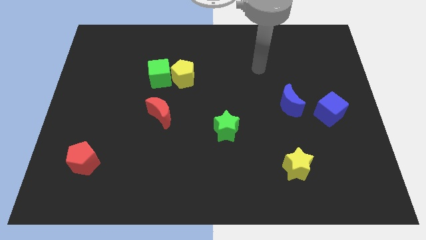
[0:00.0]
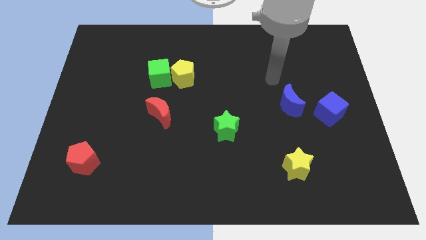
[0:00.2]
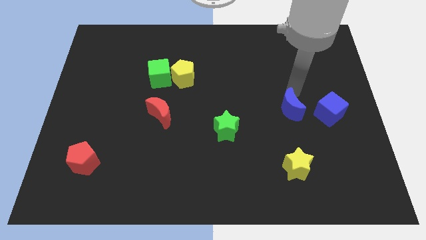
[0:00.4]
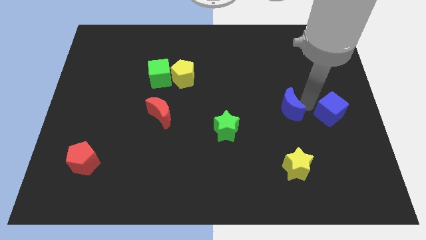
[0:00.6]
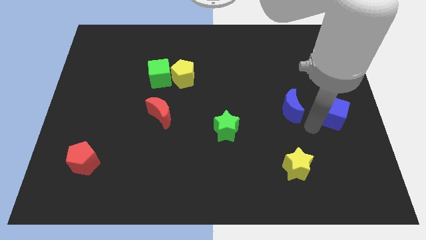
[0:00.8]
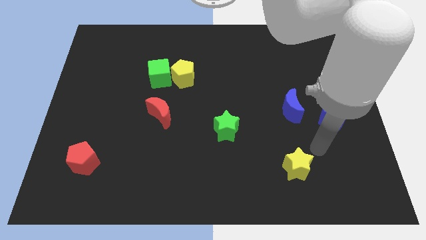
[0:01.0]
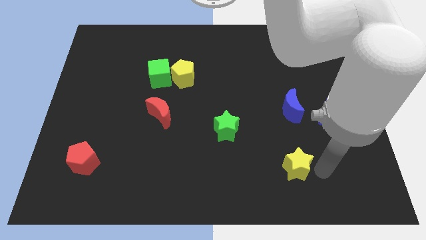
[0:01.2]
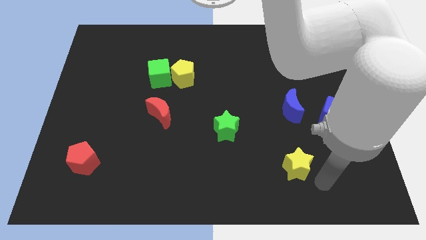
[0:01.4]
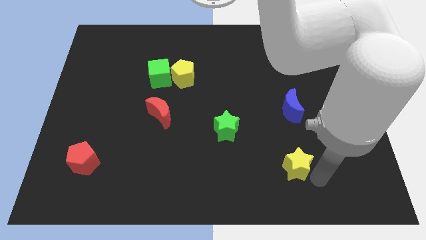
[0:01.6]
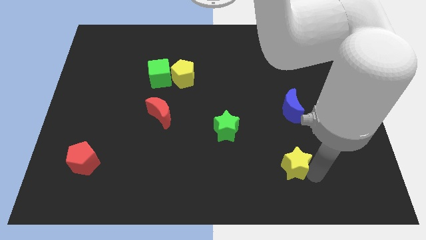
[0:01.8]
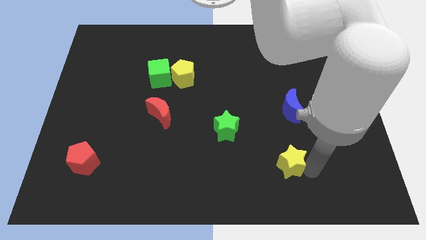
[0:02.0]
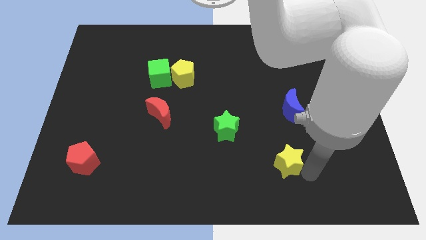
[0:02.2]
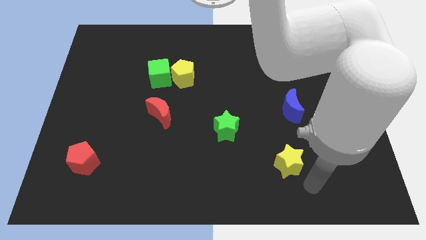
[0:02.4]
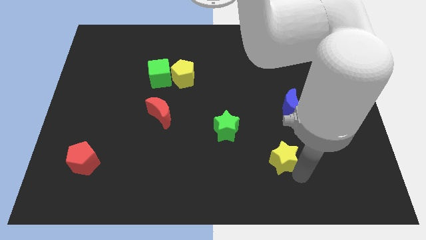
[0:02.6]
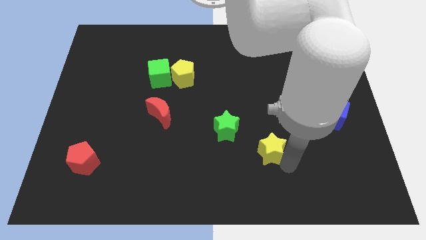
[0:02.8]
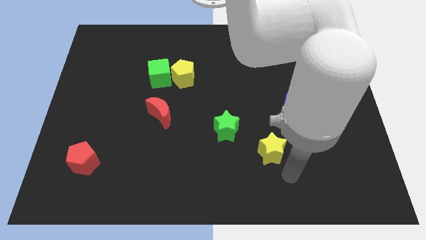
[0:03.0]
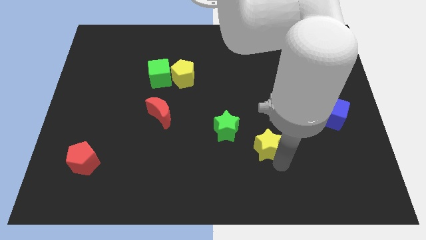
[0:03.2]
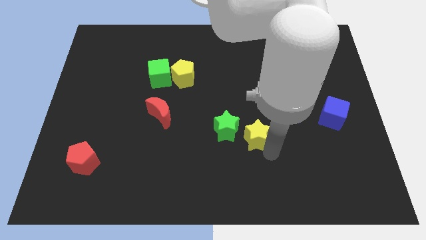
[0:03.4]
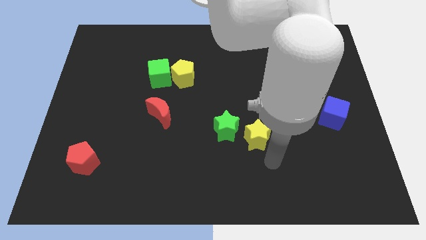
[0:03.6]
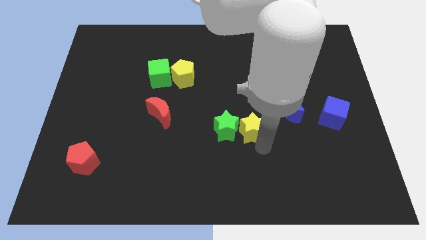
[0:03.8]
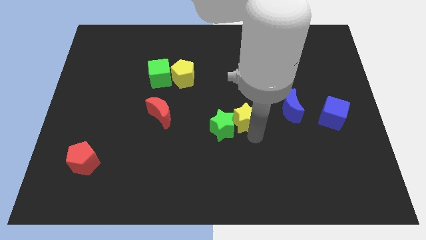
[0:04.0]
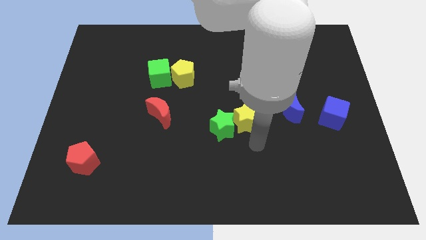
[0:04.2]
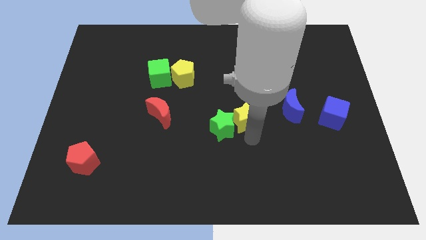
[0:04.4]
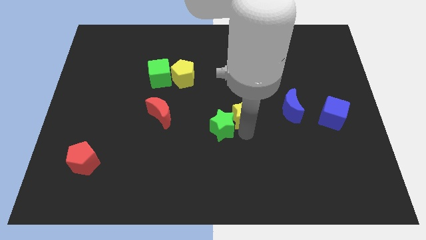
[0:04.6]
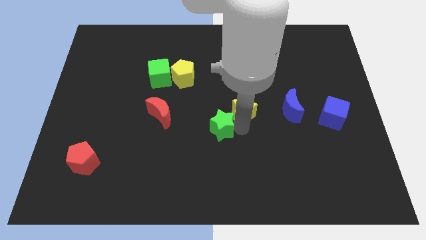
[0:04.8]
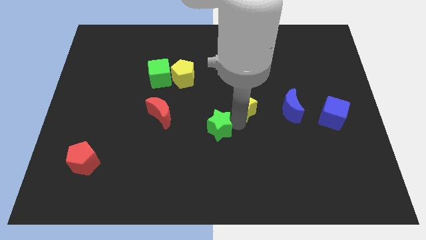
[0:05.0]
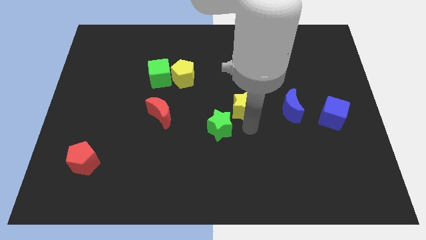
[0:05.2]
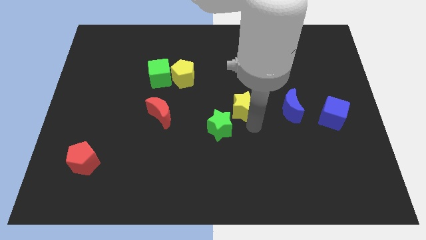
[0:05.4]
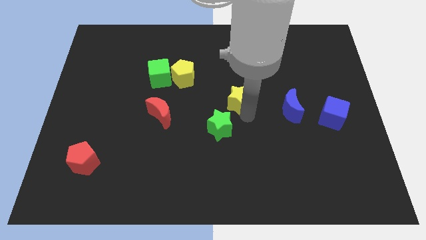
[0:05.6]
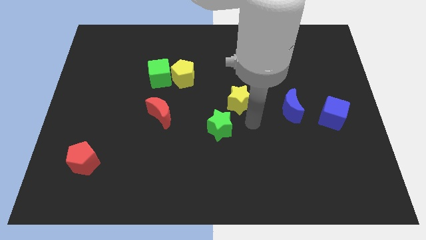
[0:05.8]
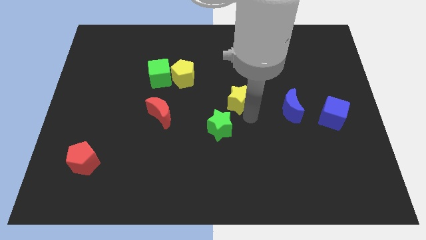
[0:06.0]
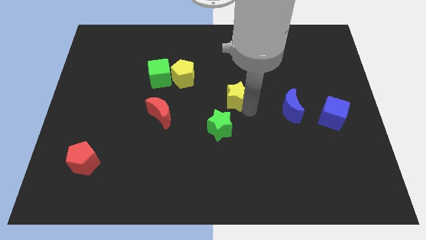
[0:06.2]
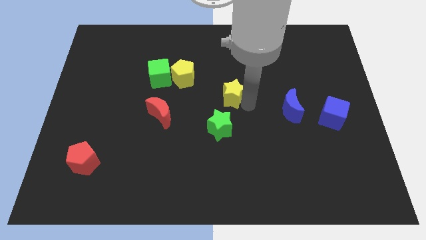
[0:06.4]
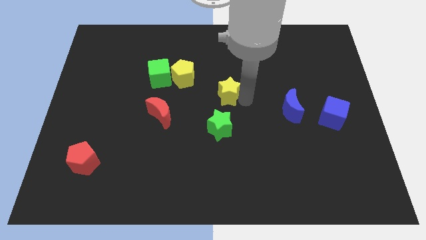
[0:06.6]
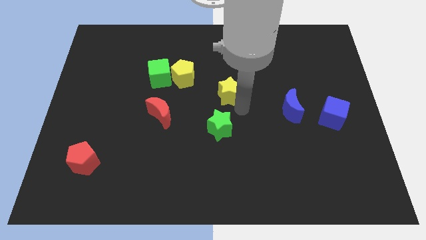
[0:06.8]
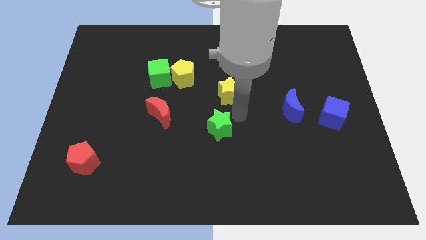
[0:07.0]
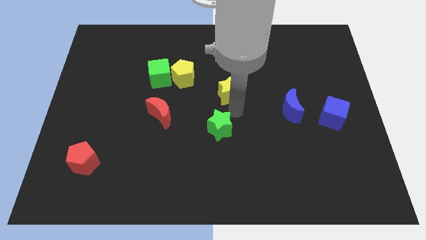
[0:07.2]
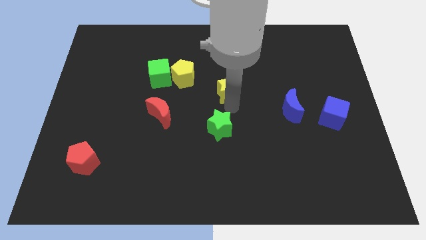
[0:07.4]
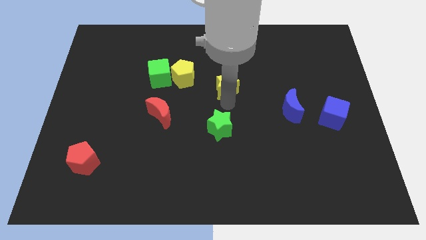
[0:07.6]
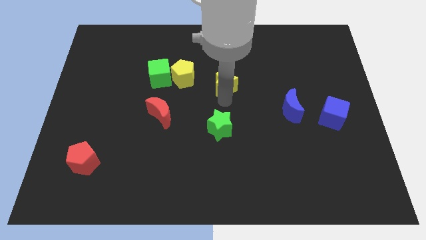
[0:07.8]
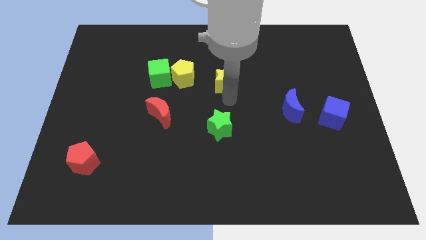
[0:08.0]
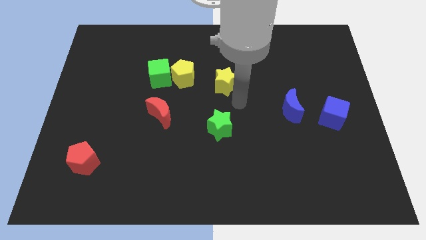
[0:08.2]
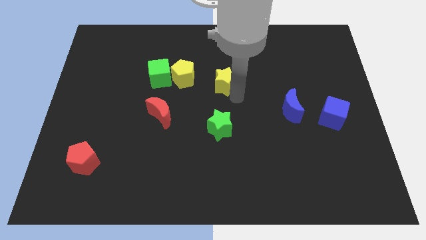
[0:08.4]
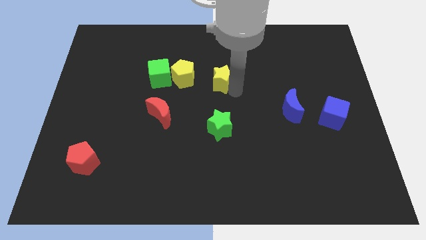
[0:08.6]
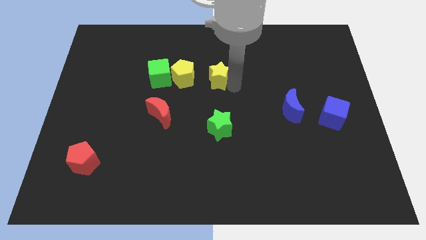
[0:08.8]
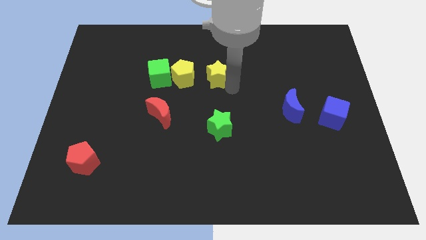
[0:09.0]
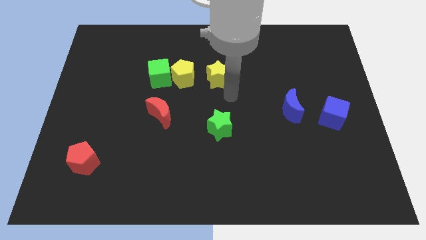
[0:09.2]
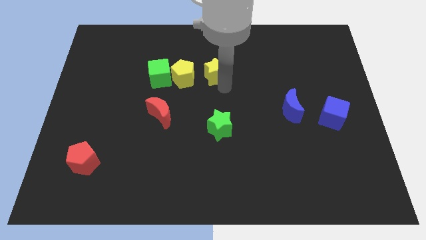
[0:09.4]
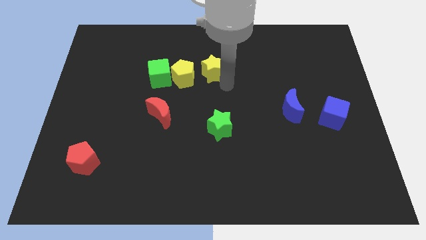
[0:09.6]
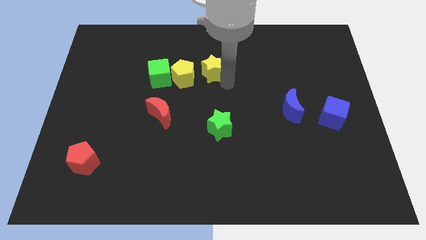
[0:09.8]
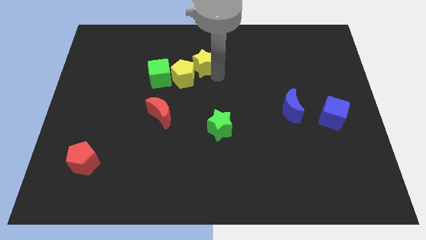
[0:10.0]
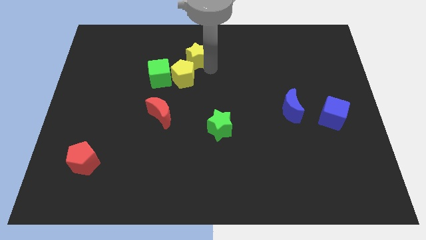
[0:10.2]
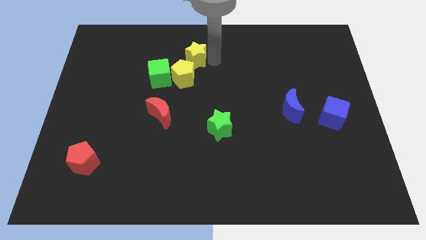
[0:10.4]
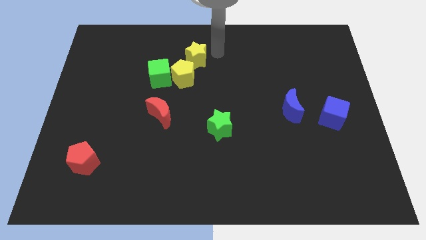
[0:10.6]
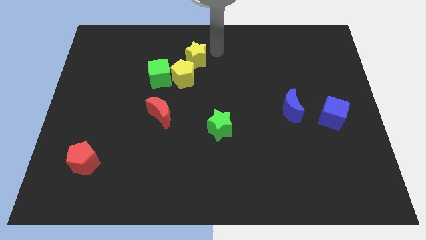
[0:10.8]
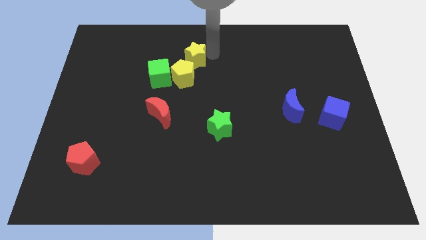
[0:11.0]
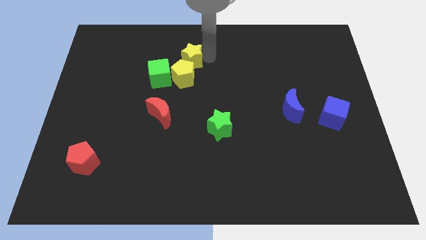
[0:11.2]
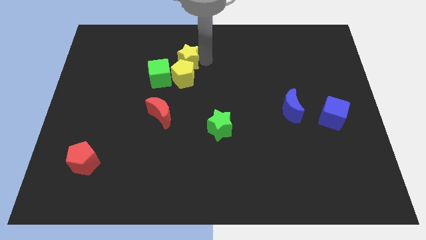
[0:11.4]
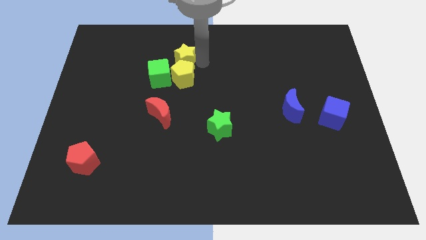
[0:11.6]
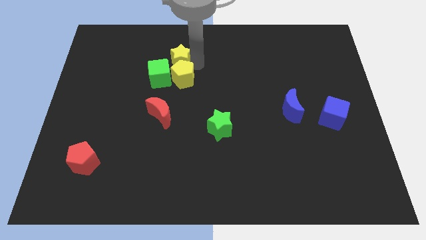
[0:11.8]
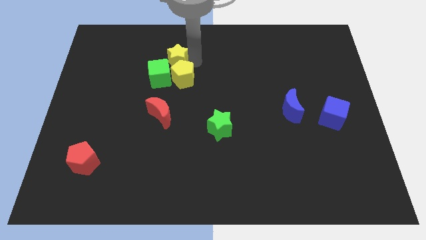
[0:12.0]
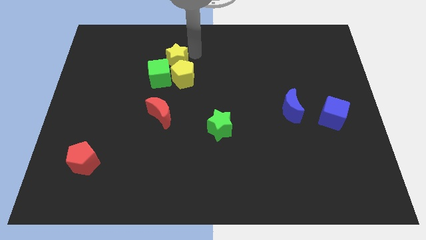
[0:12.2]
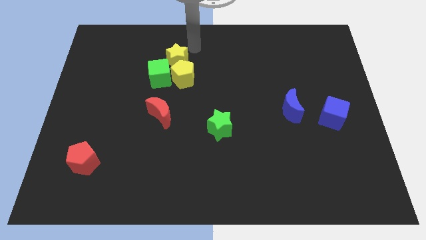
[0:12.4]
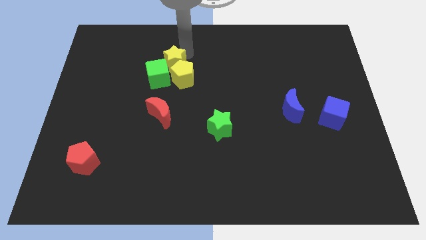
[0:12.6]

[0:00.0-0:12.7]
move the yellow star next to the green cube

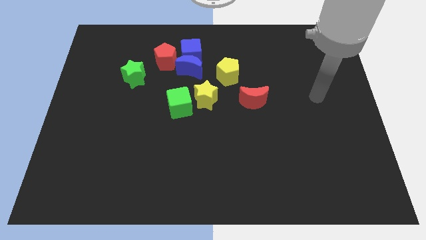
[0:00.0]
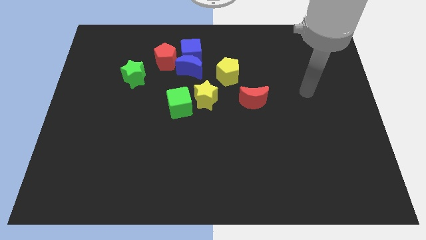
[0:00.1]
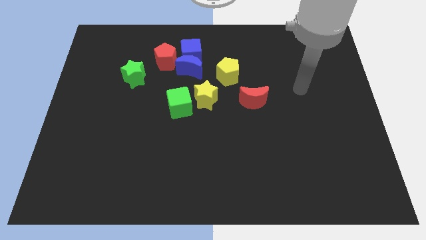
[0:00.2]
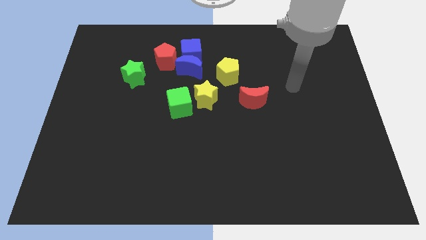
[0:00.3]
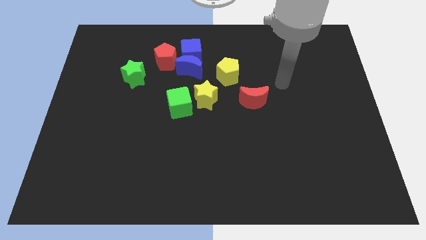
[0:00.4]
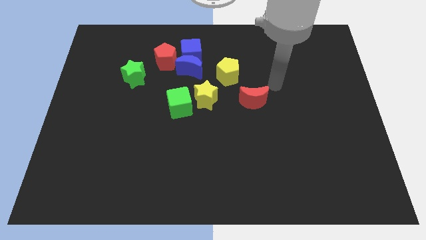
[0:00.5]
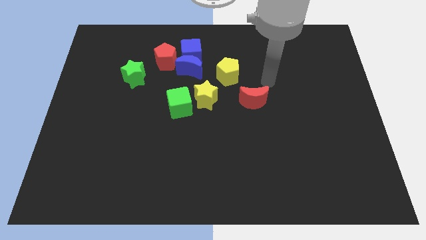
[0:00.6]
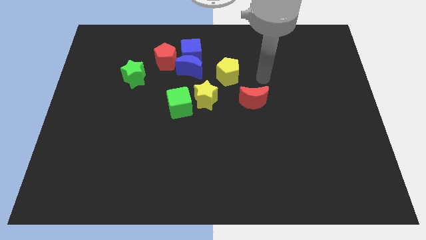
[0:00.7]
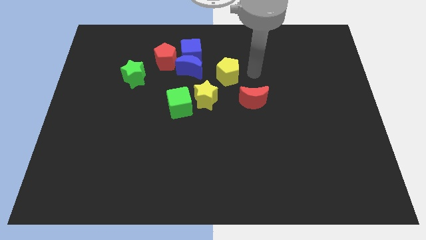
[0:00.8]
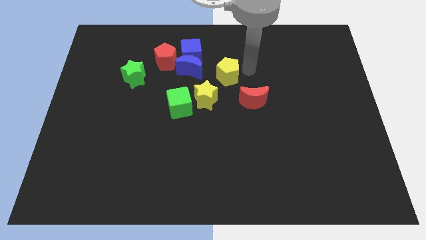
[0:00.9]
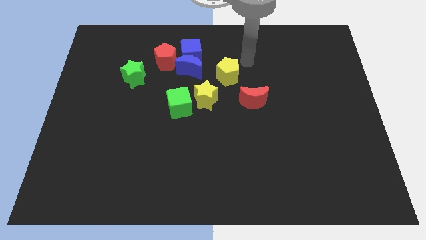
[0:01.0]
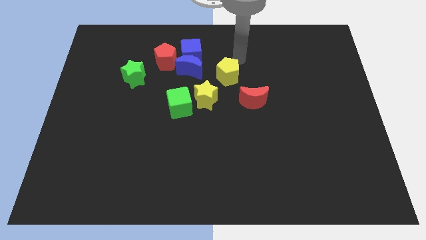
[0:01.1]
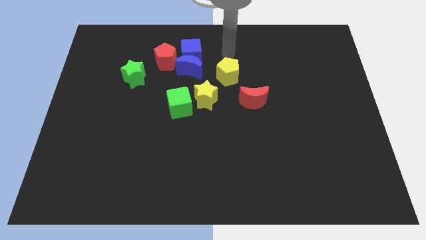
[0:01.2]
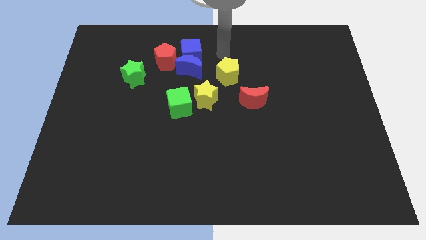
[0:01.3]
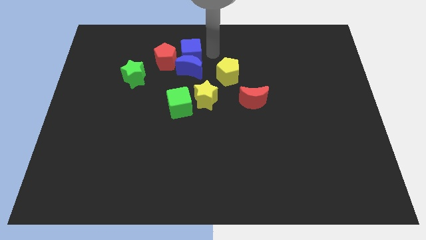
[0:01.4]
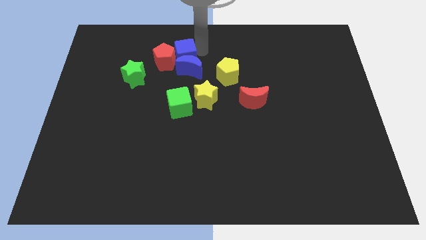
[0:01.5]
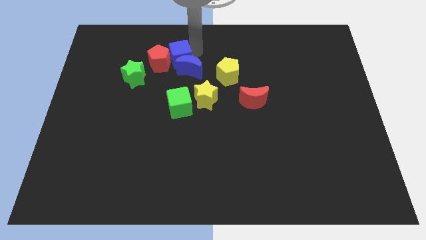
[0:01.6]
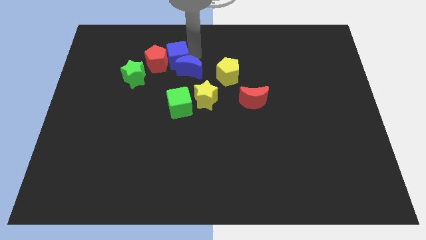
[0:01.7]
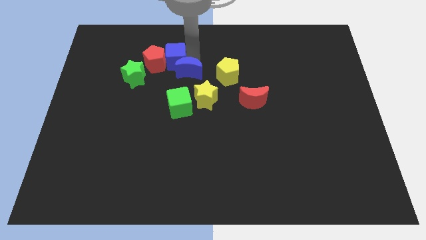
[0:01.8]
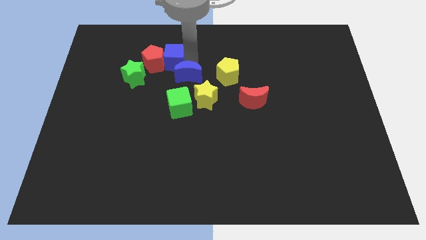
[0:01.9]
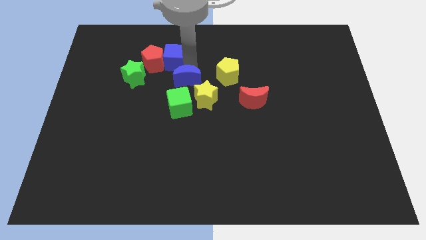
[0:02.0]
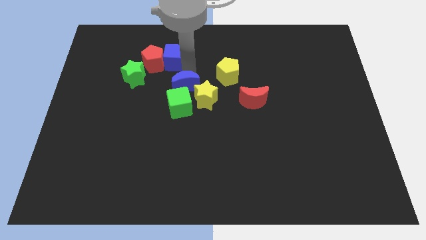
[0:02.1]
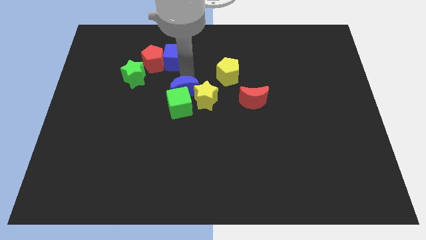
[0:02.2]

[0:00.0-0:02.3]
put the blue moon towards the green cube
